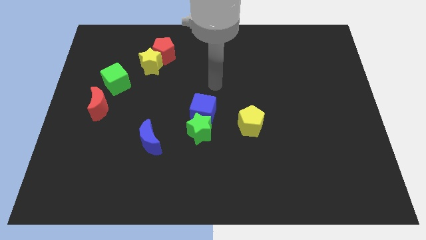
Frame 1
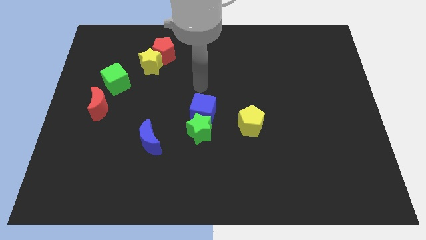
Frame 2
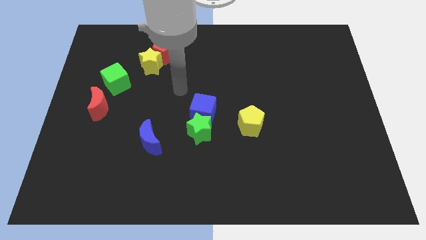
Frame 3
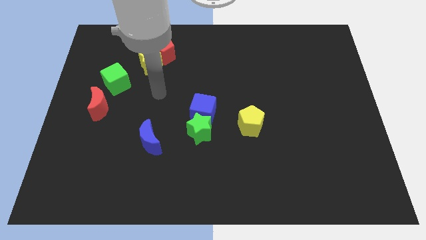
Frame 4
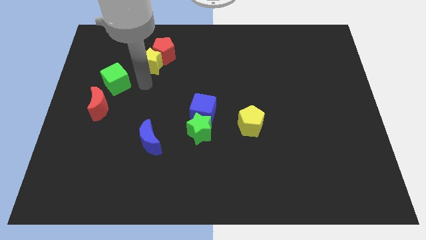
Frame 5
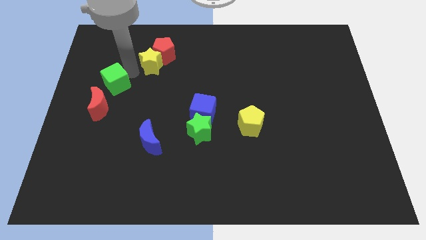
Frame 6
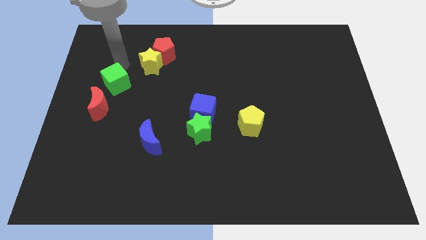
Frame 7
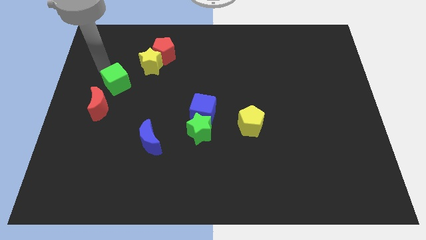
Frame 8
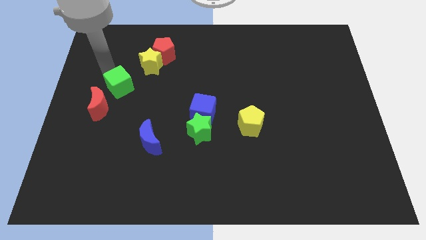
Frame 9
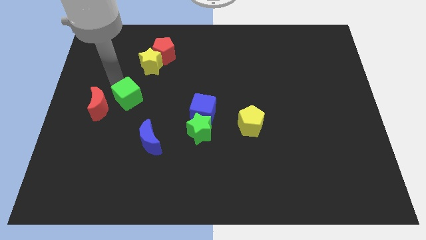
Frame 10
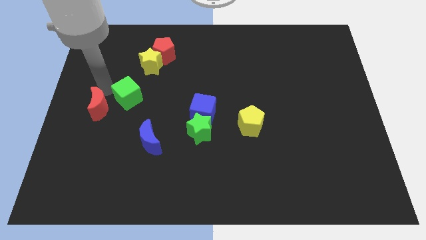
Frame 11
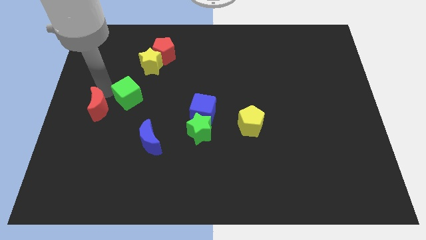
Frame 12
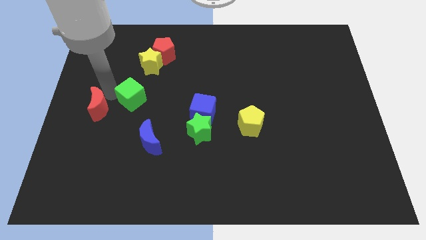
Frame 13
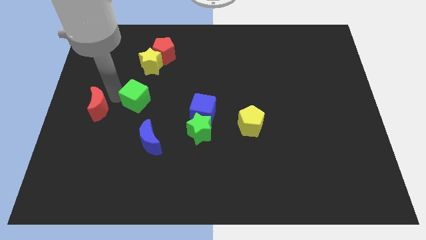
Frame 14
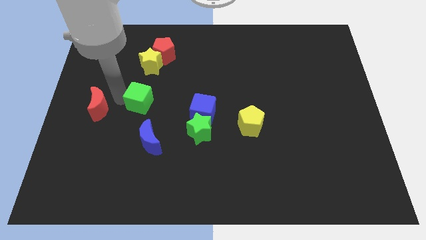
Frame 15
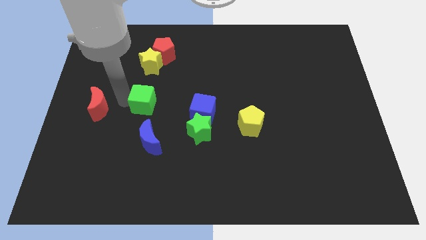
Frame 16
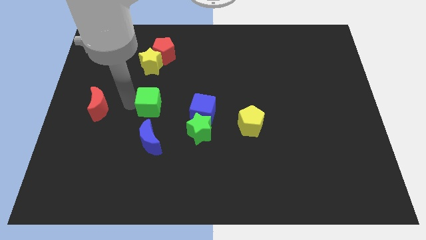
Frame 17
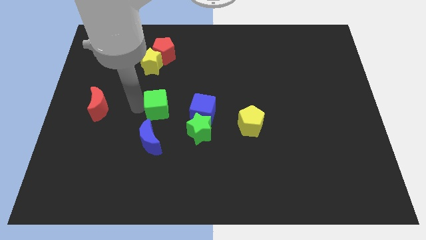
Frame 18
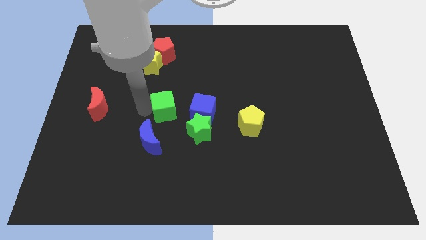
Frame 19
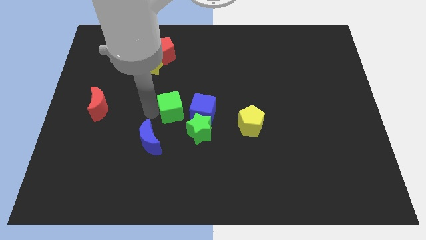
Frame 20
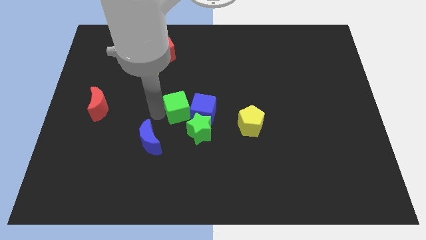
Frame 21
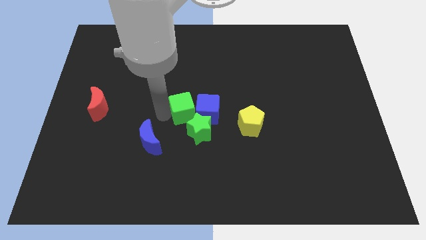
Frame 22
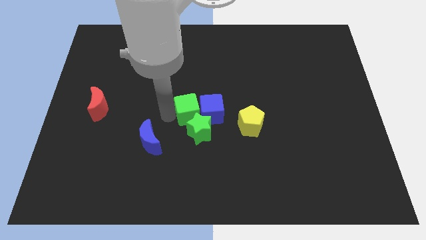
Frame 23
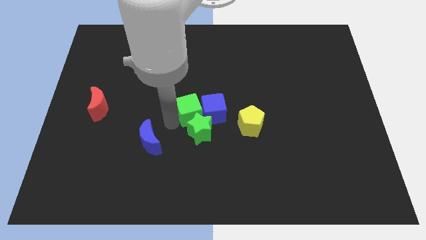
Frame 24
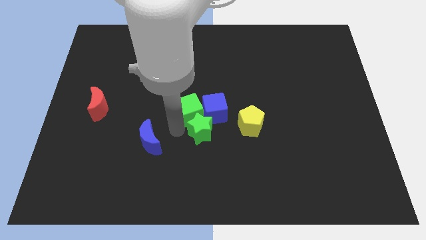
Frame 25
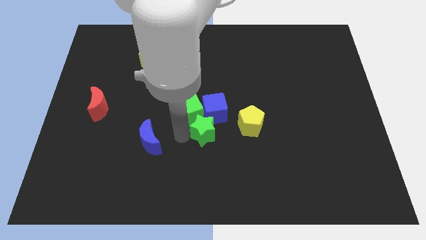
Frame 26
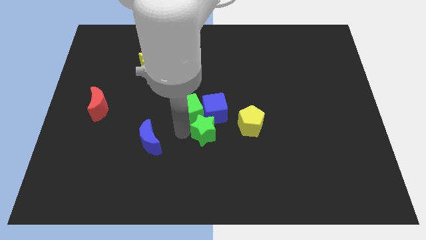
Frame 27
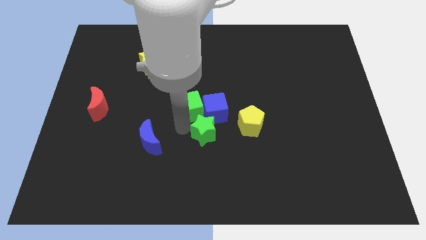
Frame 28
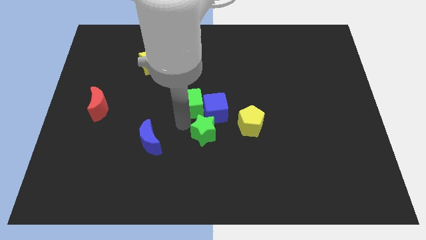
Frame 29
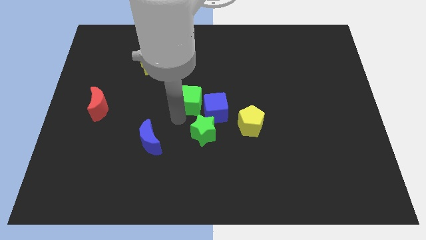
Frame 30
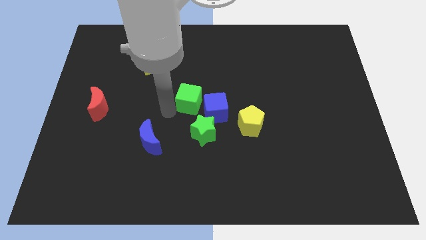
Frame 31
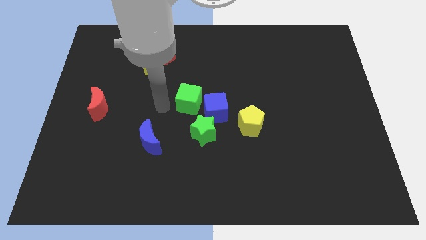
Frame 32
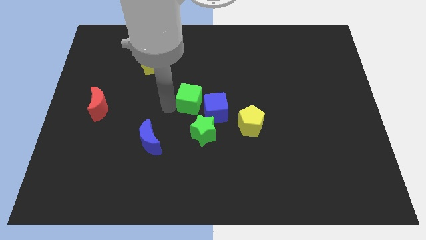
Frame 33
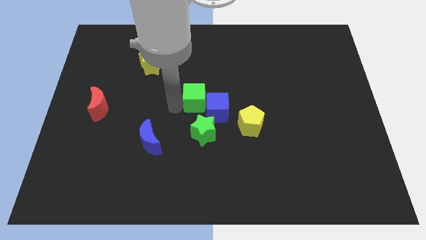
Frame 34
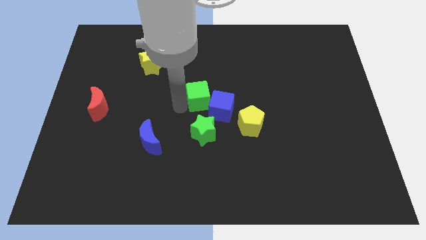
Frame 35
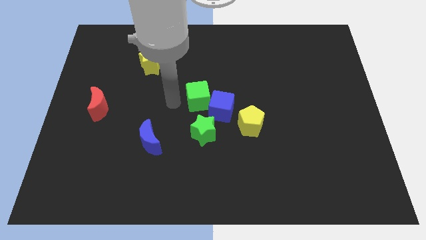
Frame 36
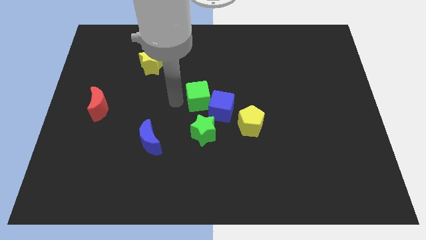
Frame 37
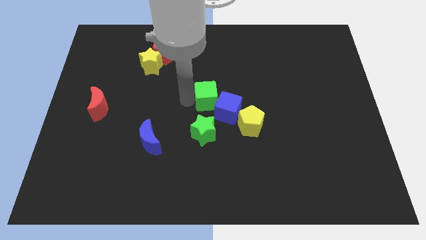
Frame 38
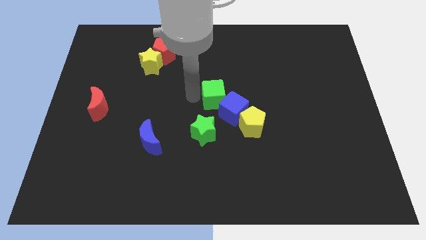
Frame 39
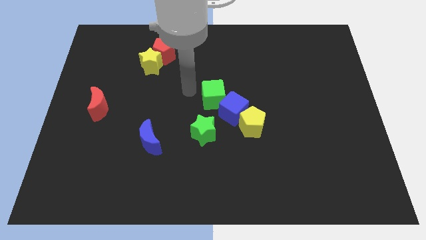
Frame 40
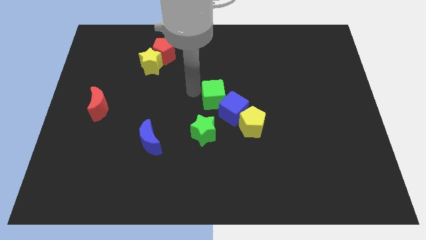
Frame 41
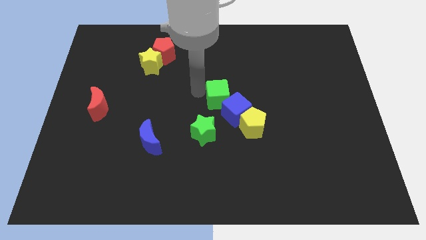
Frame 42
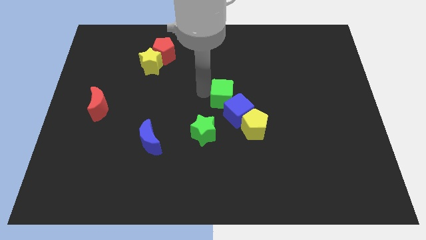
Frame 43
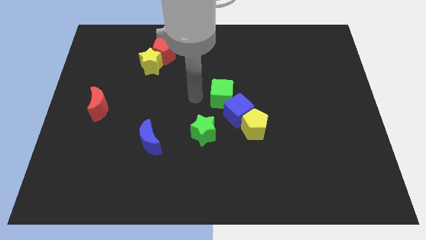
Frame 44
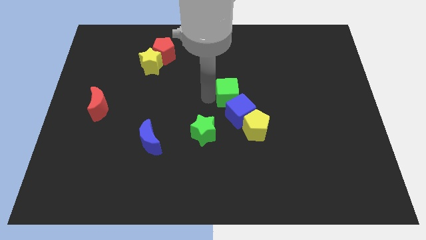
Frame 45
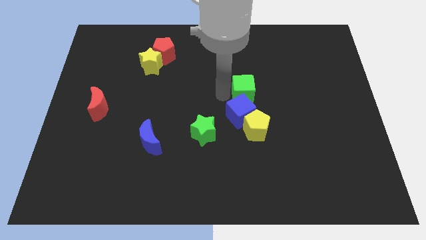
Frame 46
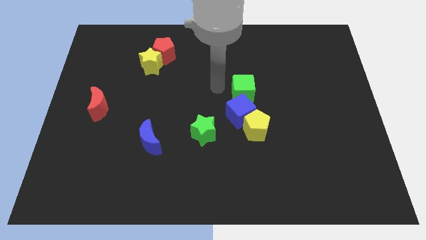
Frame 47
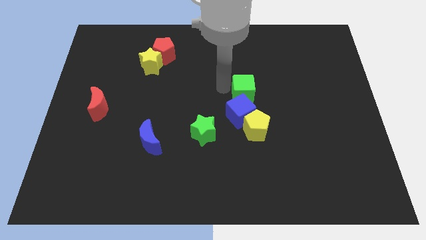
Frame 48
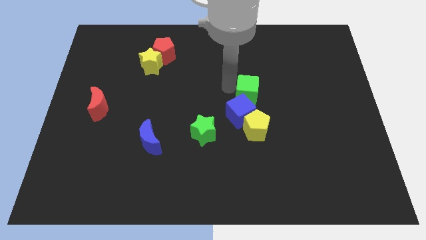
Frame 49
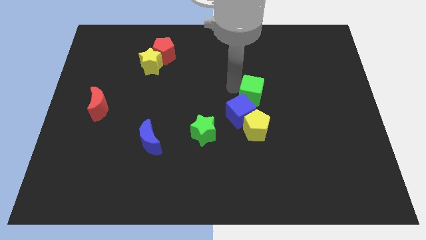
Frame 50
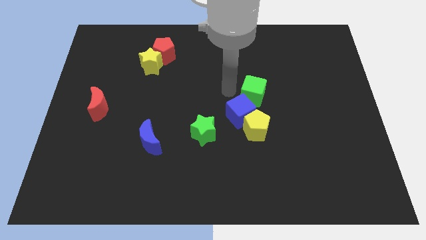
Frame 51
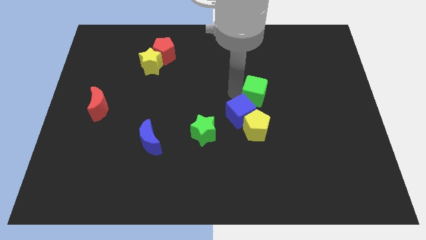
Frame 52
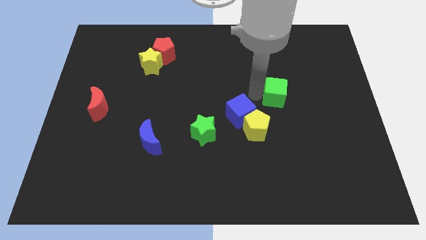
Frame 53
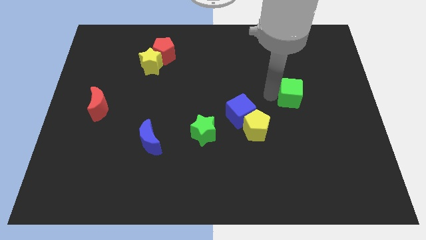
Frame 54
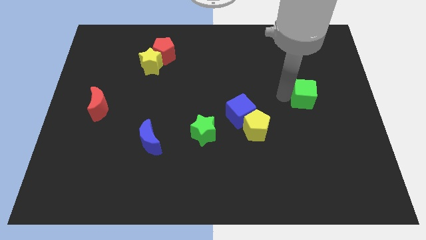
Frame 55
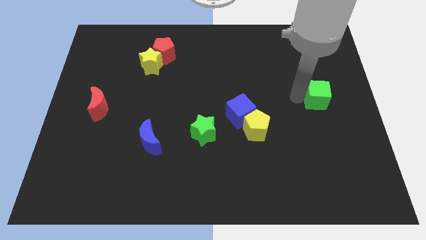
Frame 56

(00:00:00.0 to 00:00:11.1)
slide the green cube to the right side

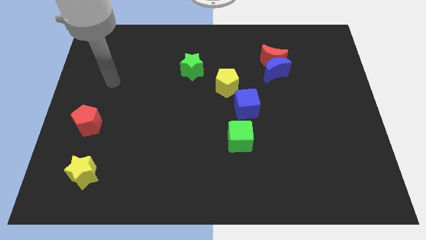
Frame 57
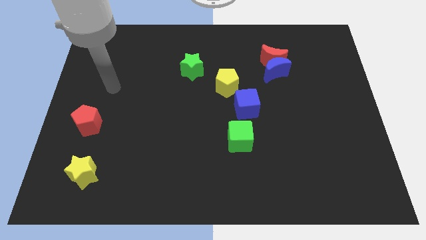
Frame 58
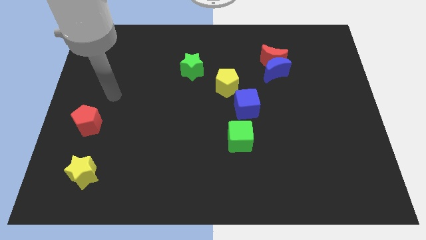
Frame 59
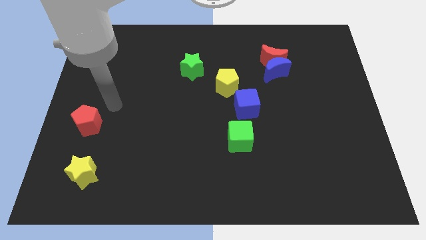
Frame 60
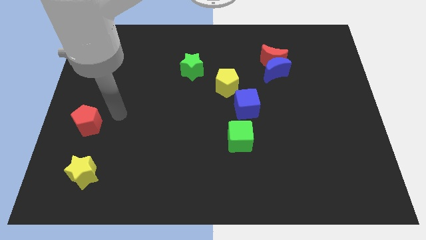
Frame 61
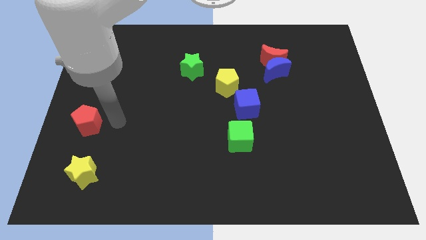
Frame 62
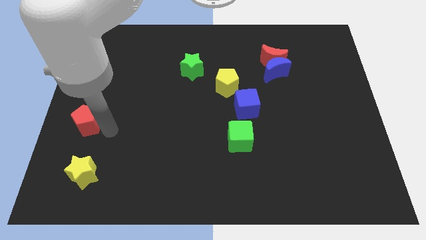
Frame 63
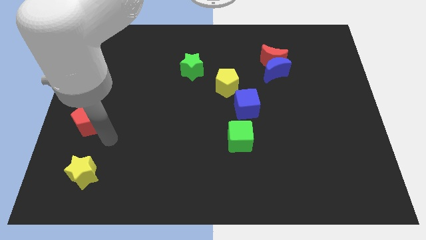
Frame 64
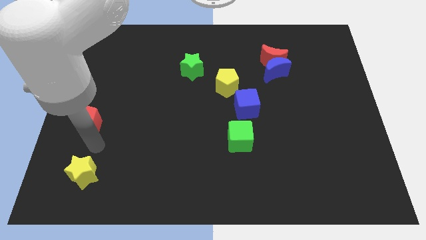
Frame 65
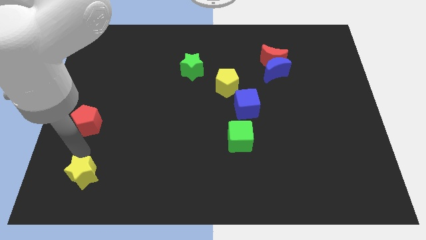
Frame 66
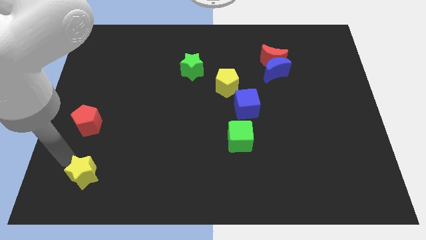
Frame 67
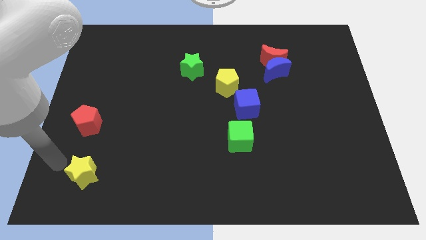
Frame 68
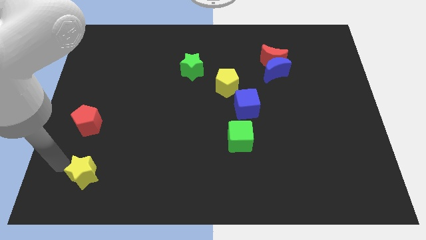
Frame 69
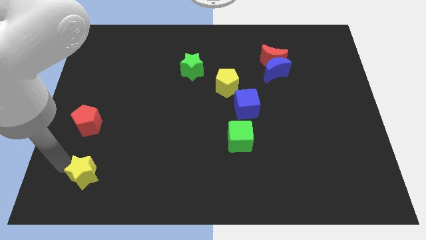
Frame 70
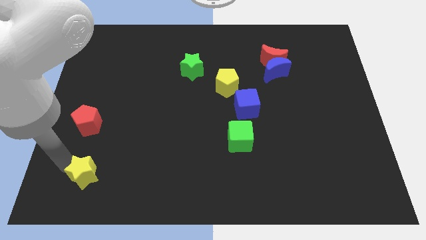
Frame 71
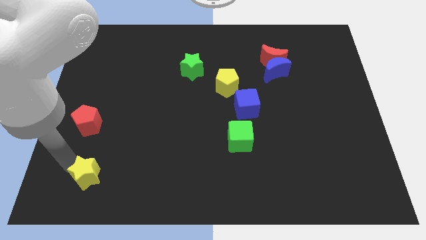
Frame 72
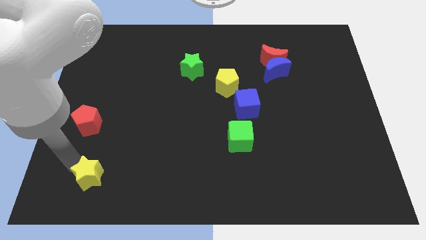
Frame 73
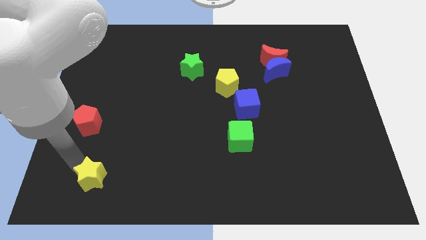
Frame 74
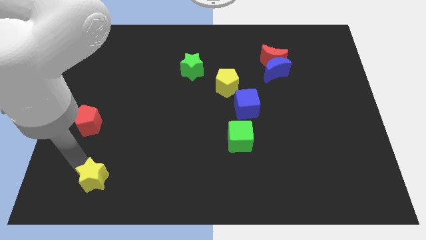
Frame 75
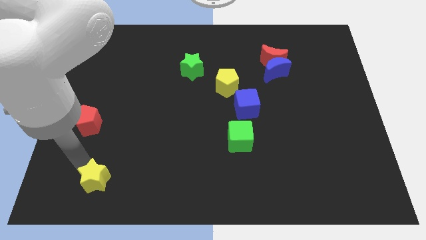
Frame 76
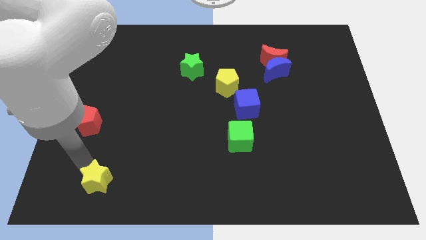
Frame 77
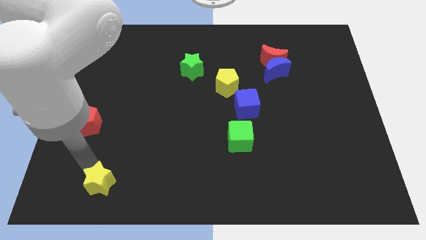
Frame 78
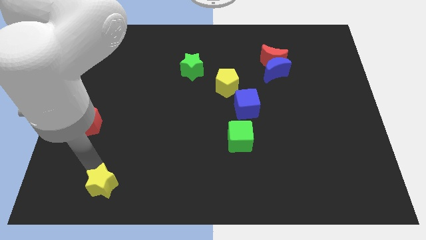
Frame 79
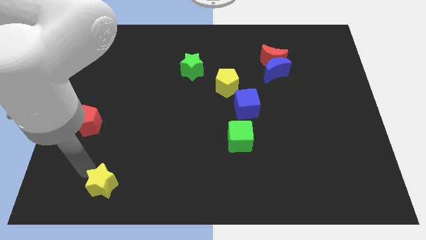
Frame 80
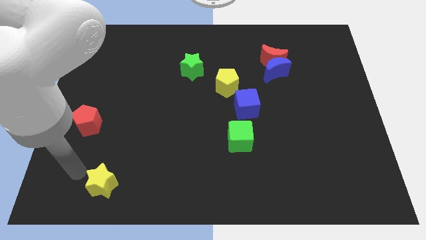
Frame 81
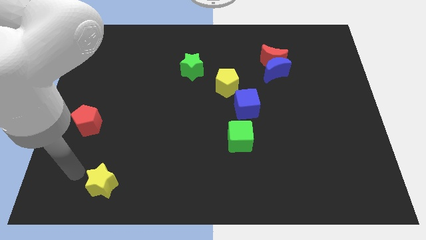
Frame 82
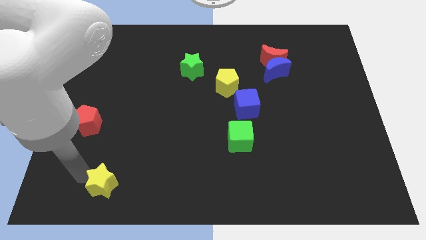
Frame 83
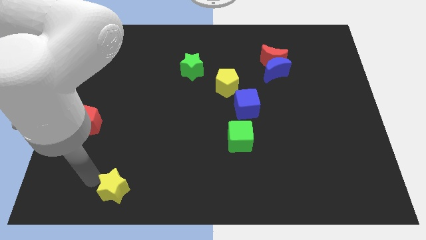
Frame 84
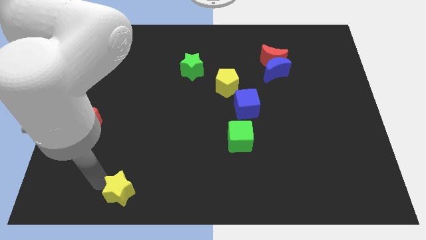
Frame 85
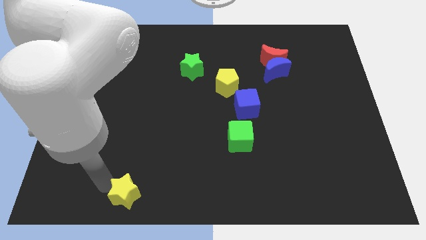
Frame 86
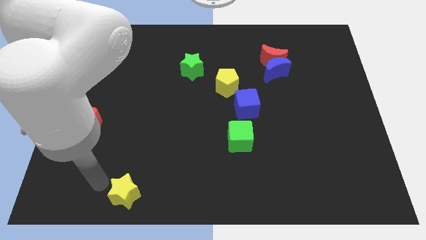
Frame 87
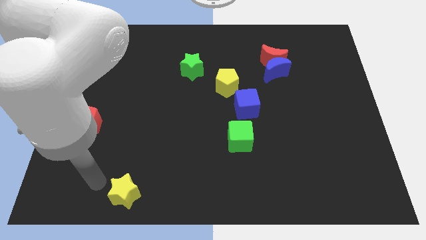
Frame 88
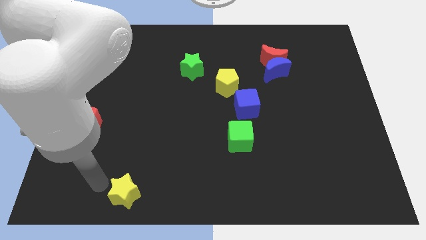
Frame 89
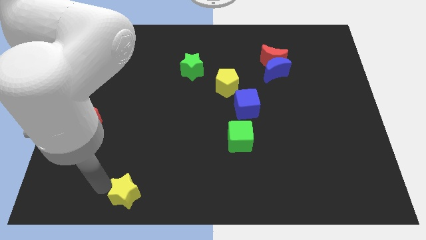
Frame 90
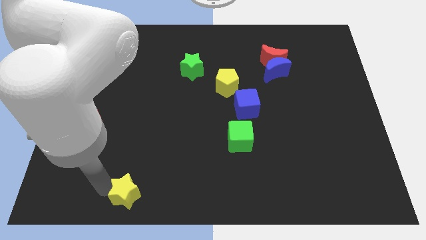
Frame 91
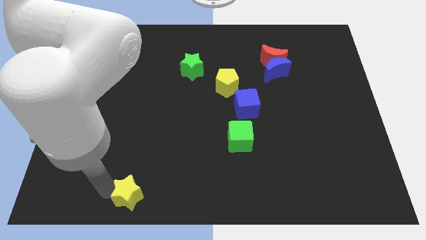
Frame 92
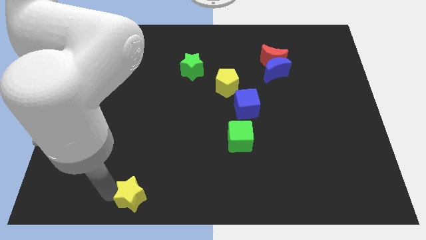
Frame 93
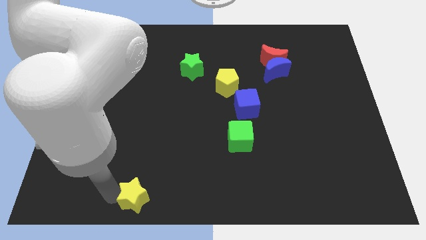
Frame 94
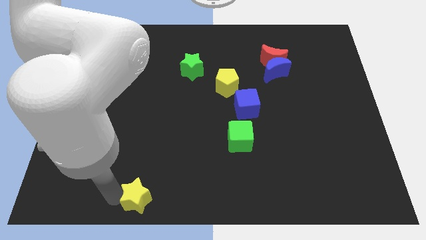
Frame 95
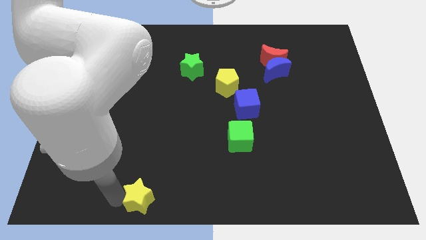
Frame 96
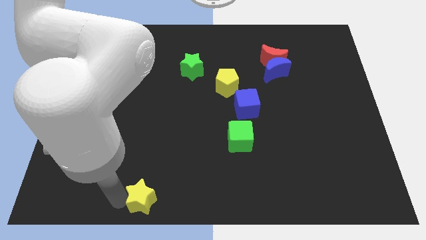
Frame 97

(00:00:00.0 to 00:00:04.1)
slide the yellow star to the bottom
